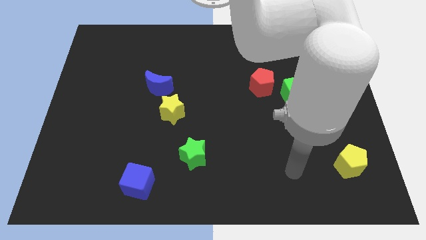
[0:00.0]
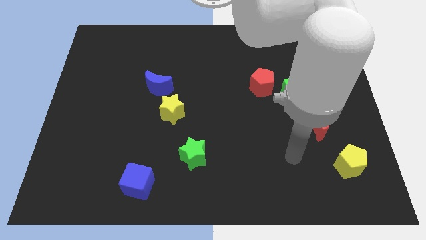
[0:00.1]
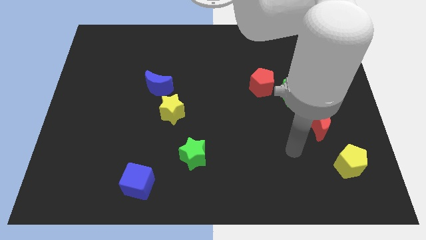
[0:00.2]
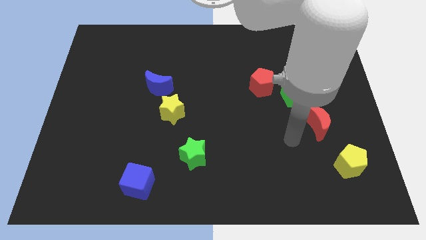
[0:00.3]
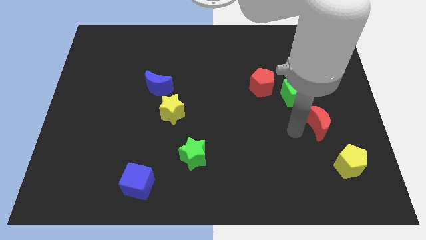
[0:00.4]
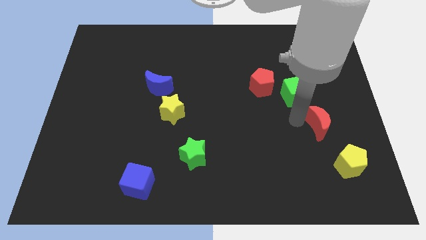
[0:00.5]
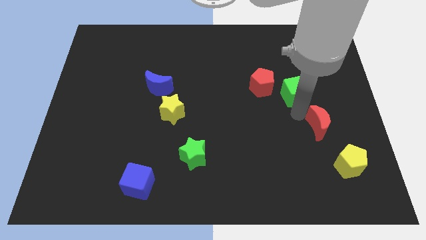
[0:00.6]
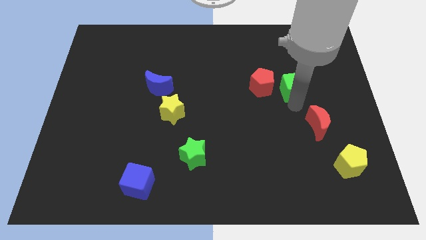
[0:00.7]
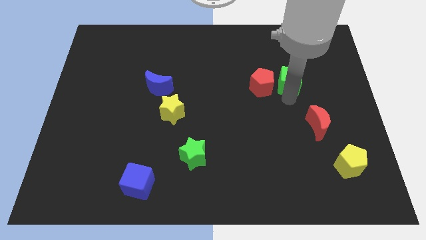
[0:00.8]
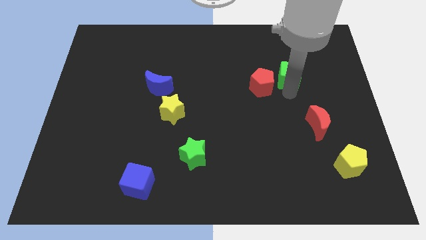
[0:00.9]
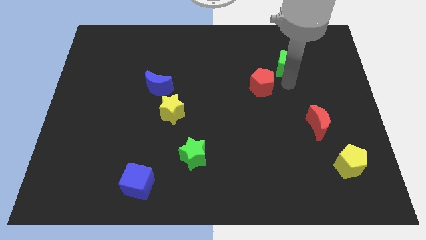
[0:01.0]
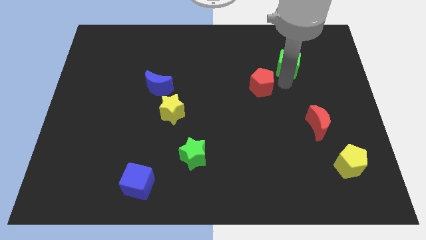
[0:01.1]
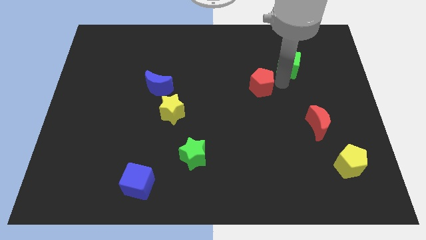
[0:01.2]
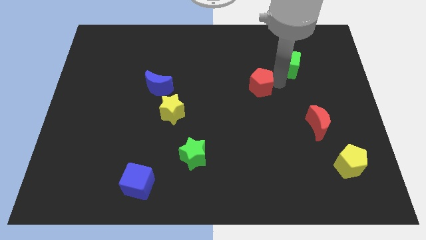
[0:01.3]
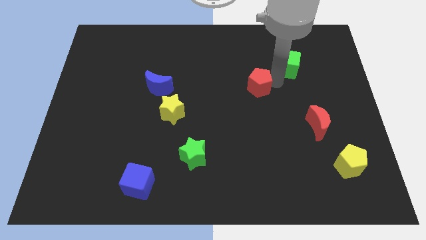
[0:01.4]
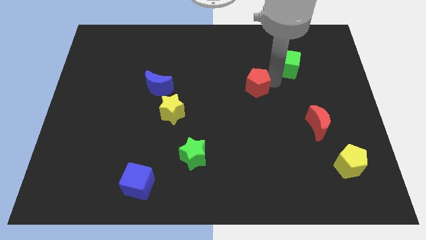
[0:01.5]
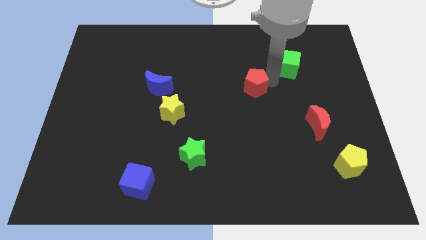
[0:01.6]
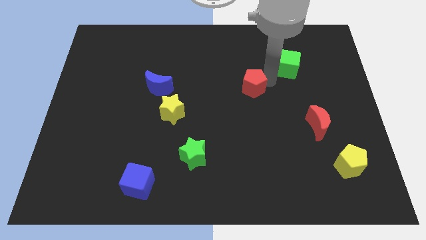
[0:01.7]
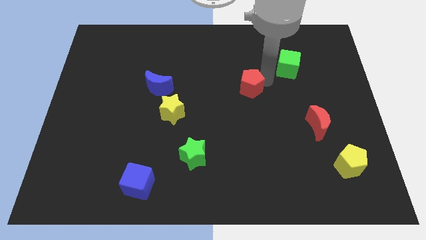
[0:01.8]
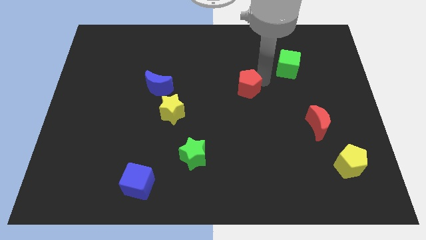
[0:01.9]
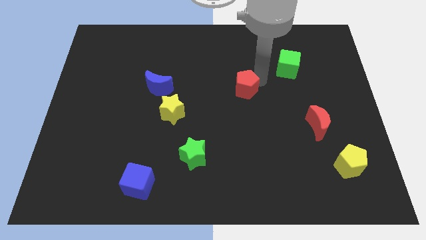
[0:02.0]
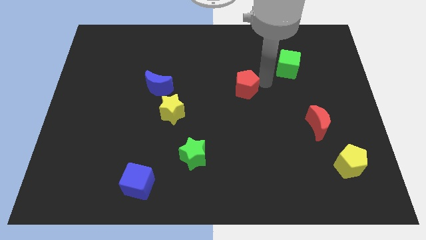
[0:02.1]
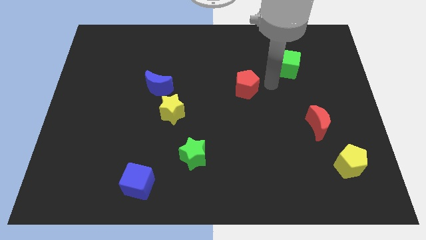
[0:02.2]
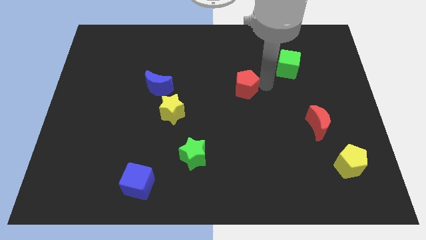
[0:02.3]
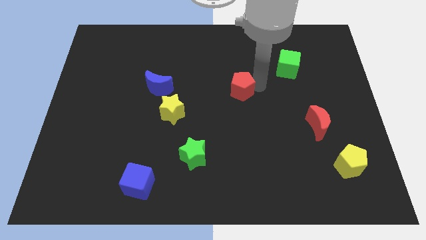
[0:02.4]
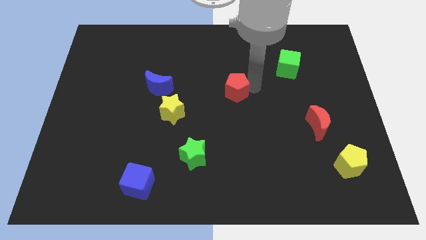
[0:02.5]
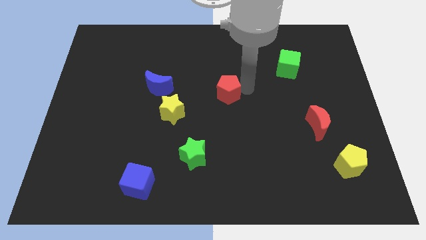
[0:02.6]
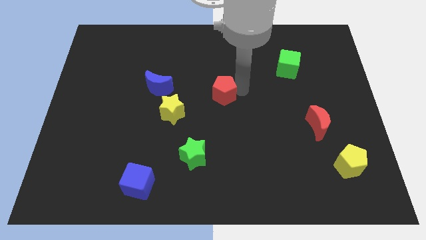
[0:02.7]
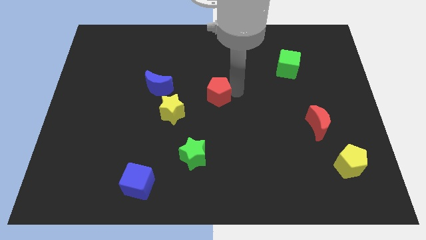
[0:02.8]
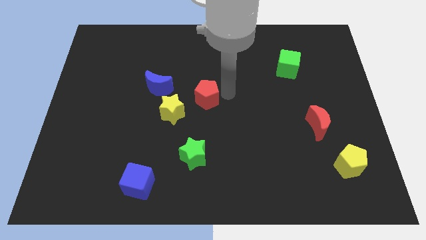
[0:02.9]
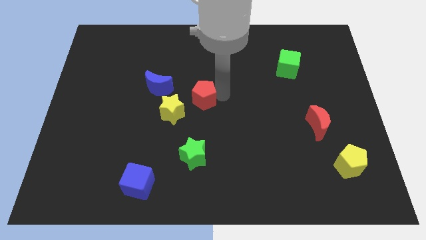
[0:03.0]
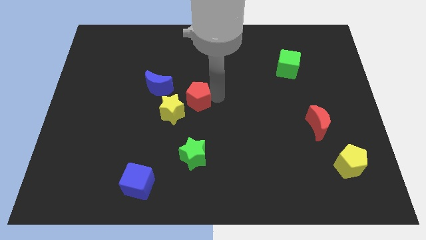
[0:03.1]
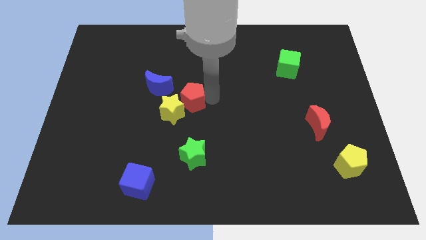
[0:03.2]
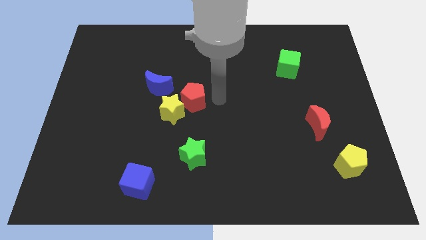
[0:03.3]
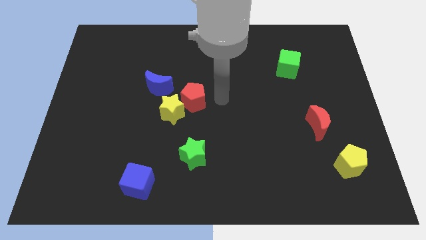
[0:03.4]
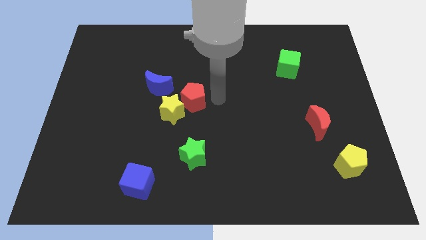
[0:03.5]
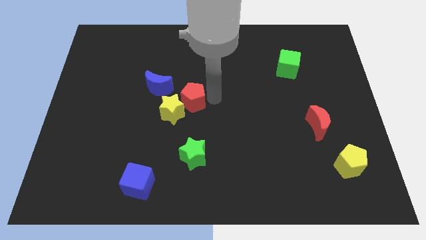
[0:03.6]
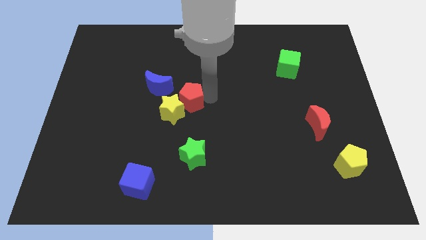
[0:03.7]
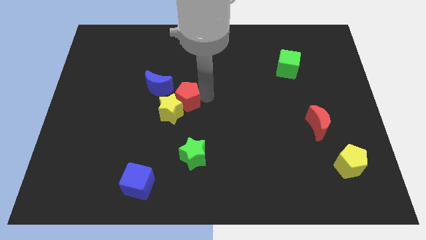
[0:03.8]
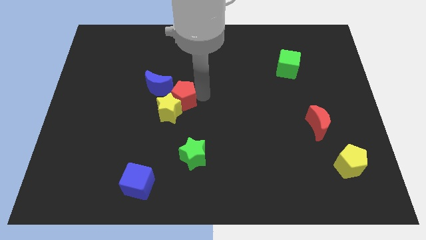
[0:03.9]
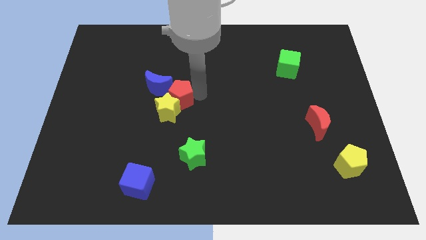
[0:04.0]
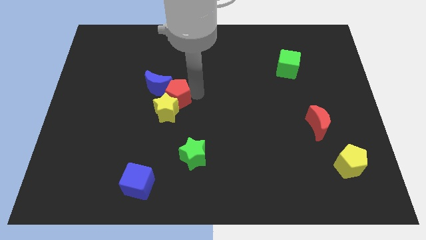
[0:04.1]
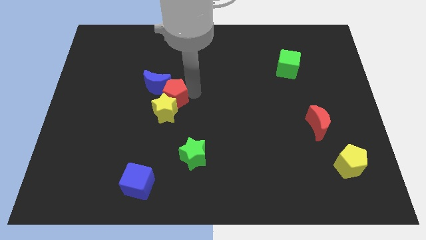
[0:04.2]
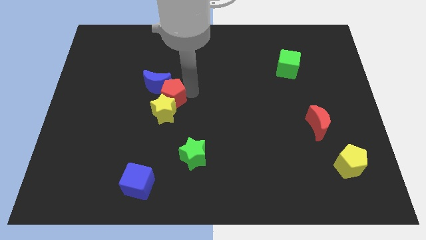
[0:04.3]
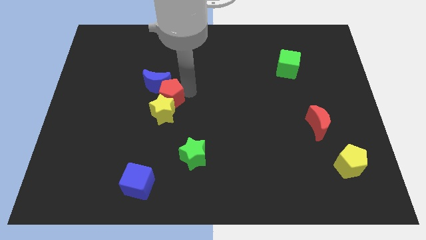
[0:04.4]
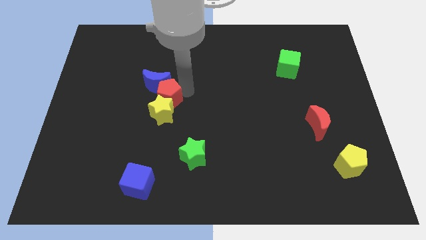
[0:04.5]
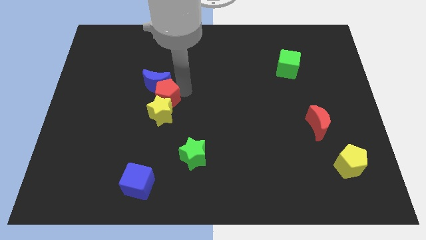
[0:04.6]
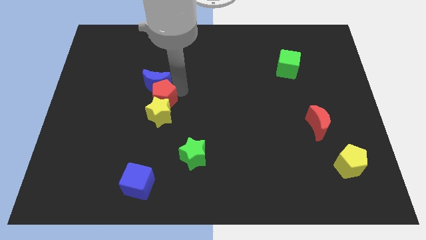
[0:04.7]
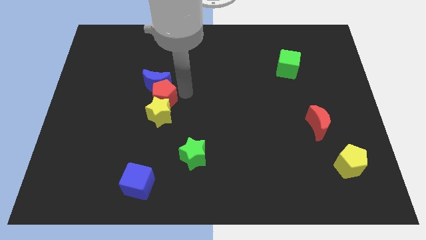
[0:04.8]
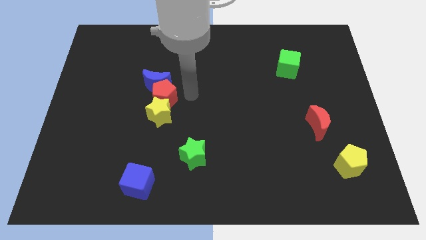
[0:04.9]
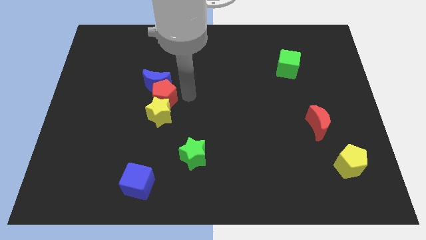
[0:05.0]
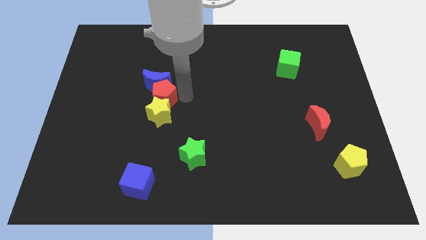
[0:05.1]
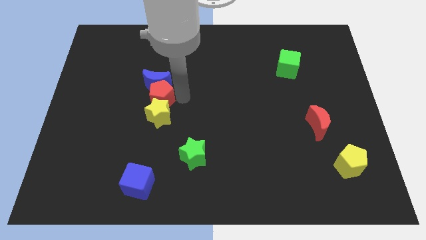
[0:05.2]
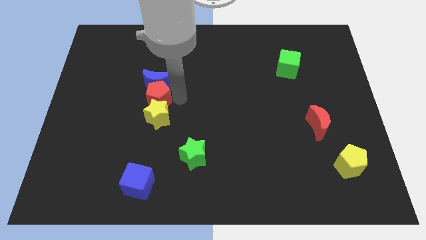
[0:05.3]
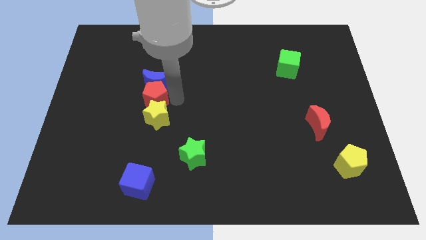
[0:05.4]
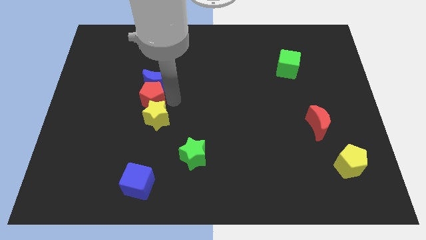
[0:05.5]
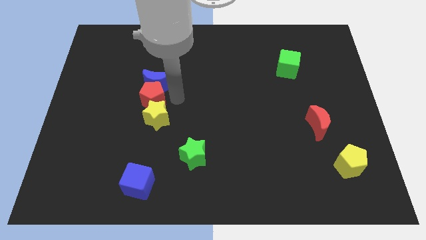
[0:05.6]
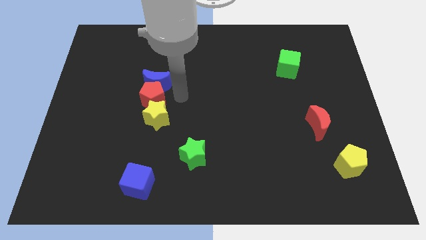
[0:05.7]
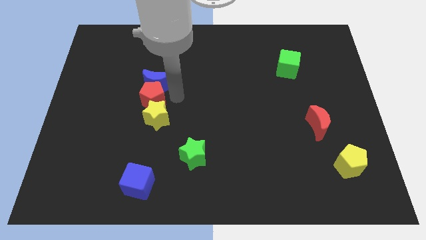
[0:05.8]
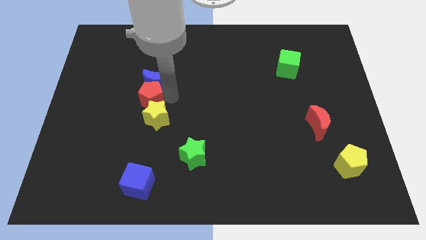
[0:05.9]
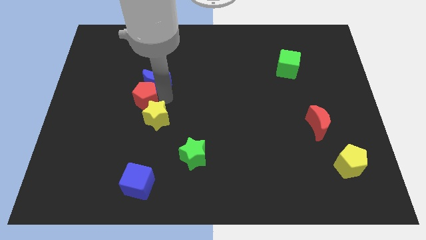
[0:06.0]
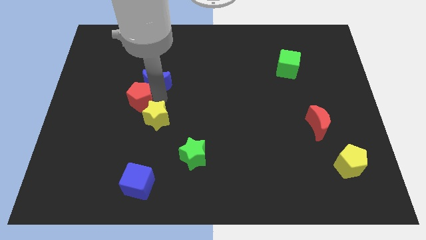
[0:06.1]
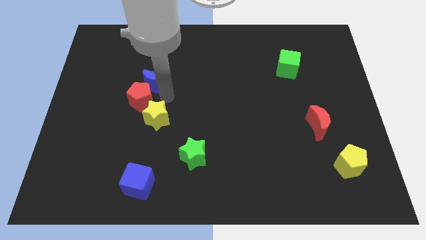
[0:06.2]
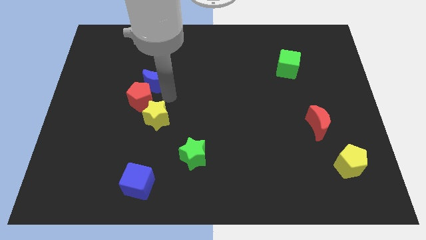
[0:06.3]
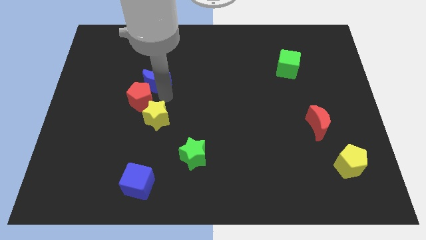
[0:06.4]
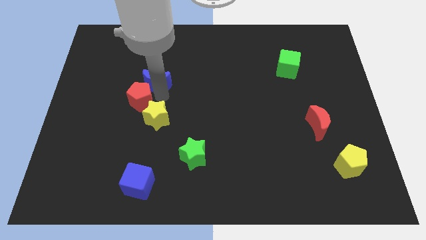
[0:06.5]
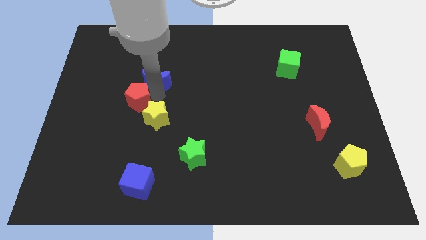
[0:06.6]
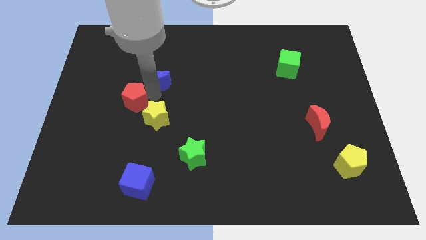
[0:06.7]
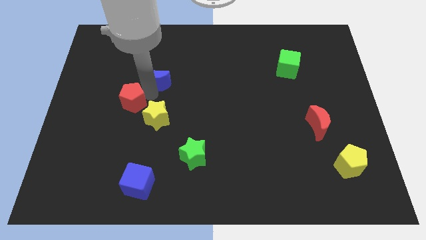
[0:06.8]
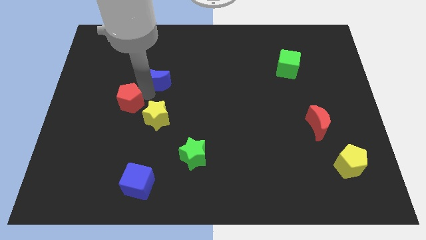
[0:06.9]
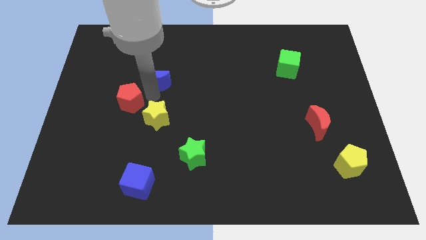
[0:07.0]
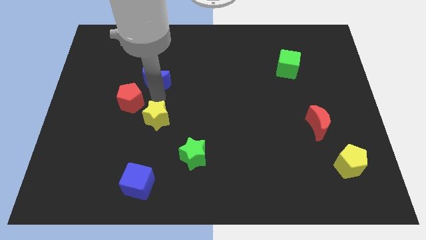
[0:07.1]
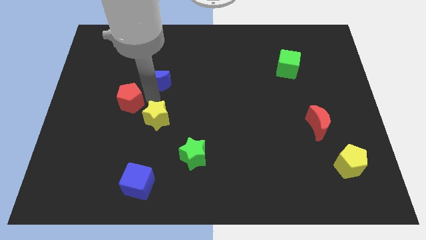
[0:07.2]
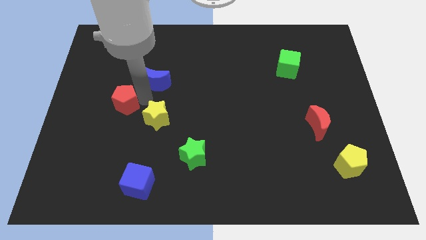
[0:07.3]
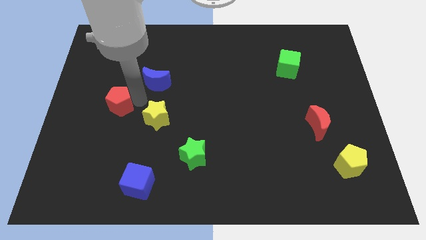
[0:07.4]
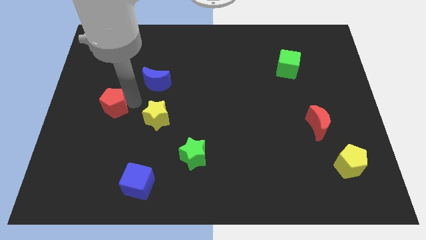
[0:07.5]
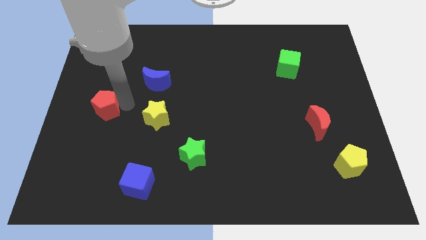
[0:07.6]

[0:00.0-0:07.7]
move the red pentagon to the left side of the board
